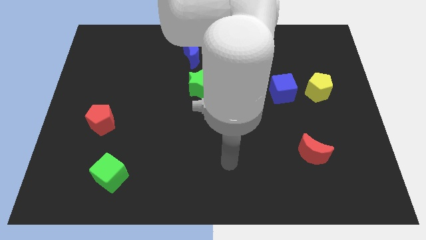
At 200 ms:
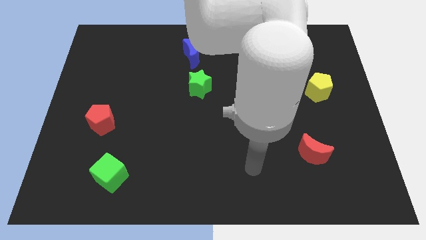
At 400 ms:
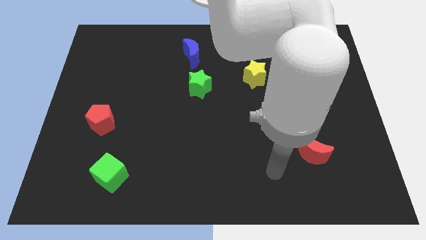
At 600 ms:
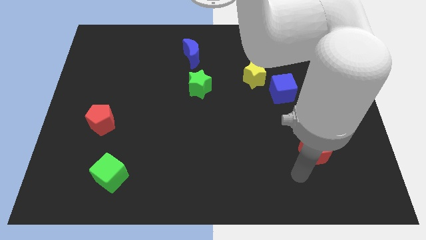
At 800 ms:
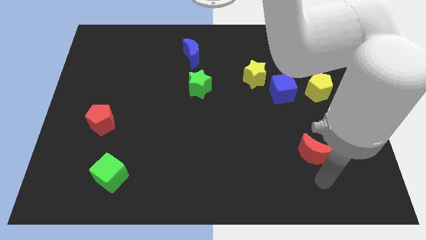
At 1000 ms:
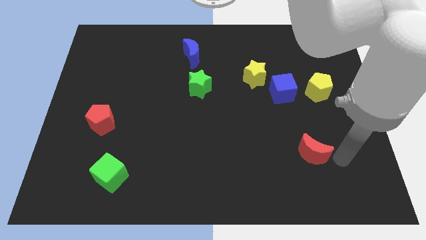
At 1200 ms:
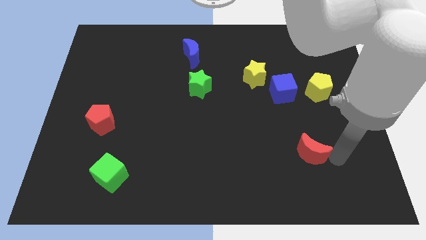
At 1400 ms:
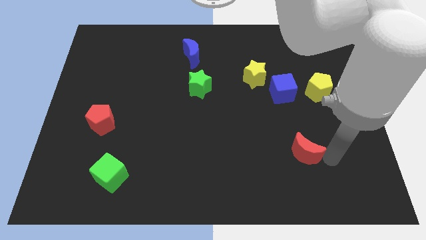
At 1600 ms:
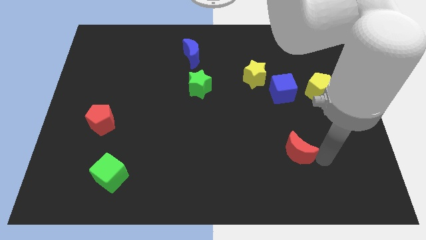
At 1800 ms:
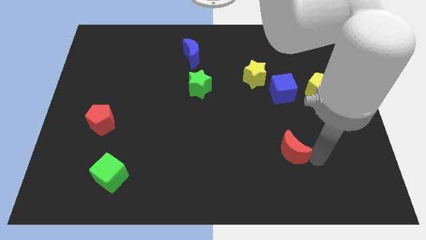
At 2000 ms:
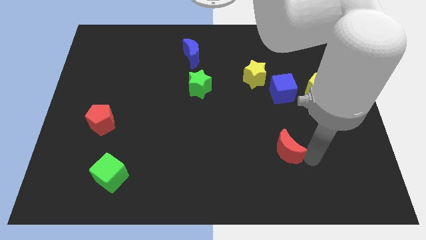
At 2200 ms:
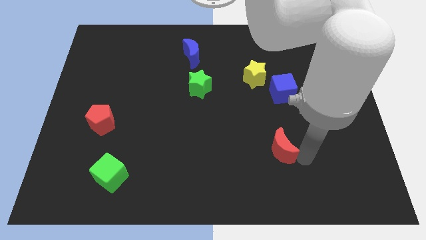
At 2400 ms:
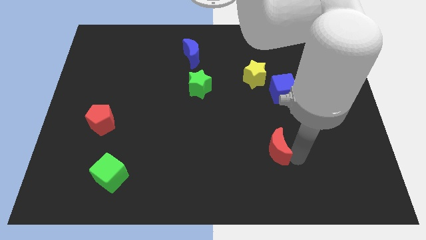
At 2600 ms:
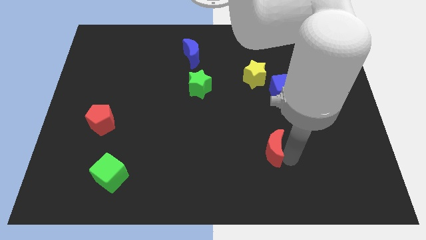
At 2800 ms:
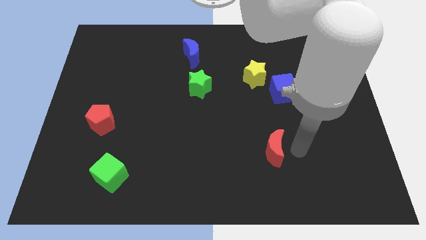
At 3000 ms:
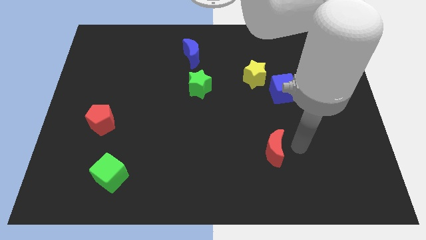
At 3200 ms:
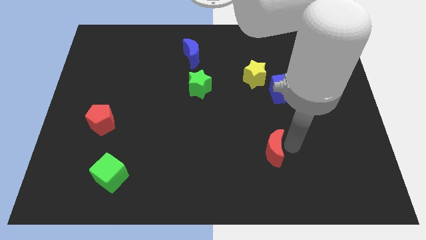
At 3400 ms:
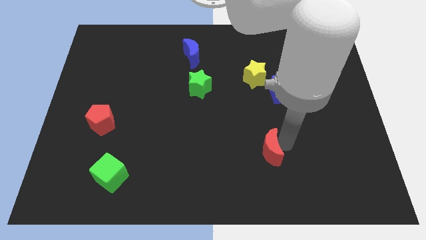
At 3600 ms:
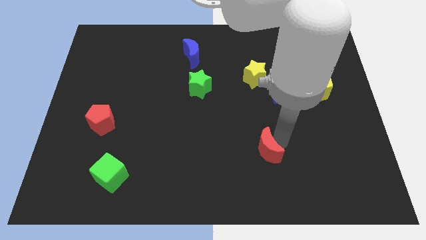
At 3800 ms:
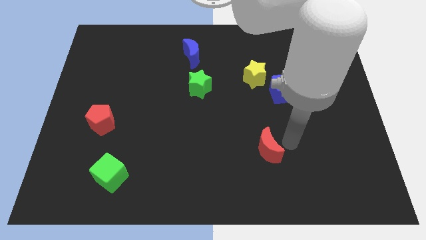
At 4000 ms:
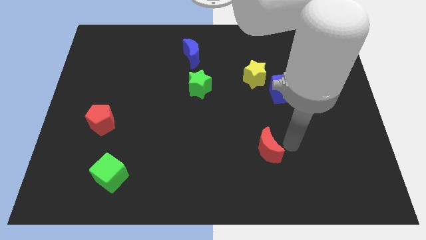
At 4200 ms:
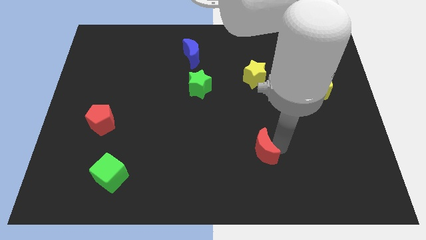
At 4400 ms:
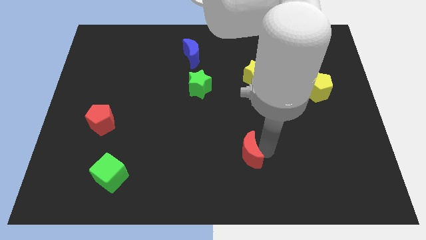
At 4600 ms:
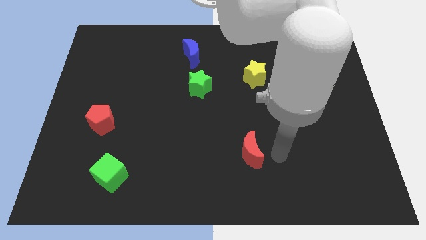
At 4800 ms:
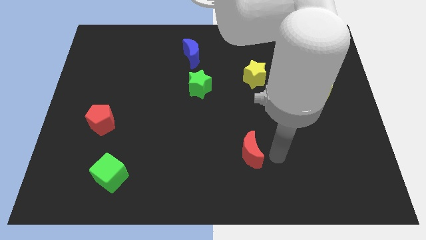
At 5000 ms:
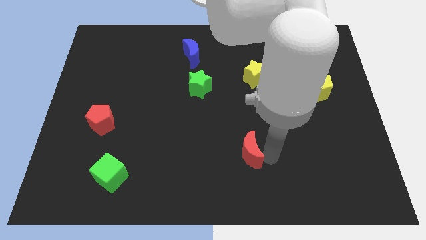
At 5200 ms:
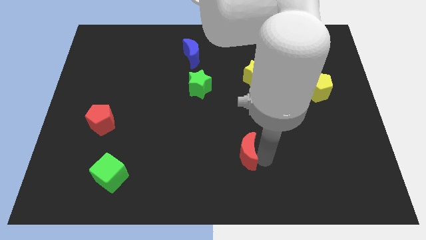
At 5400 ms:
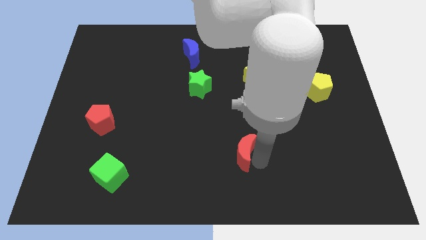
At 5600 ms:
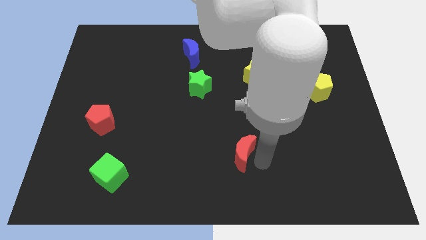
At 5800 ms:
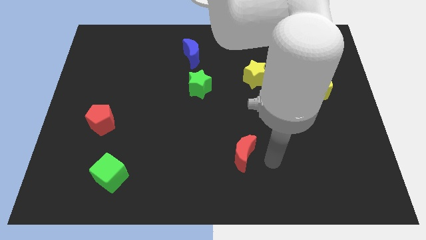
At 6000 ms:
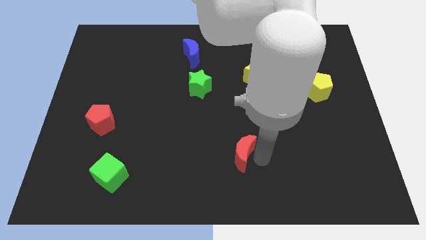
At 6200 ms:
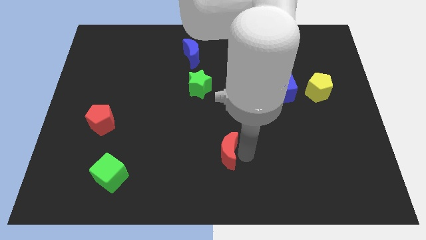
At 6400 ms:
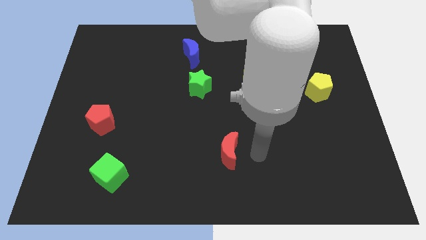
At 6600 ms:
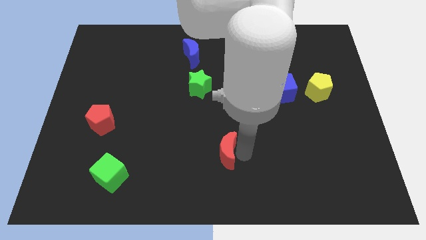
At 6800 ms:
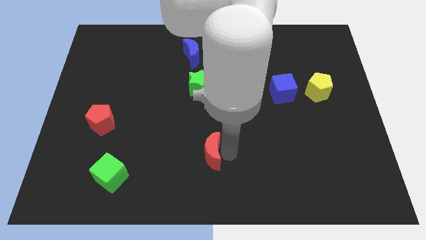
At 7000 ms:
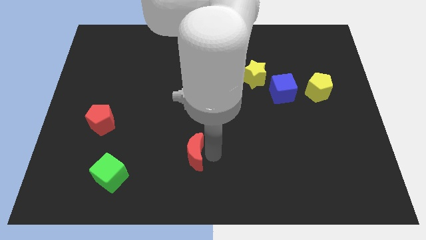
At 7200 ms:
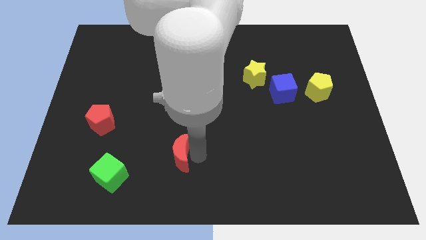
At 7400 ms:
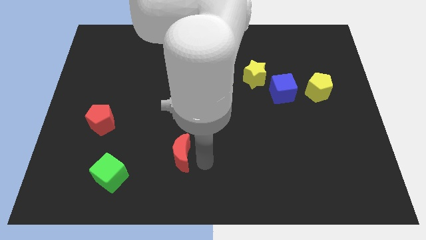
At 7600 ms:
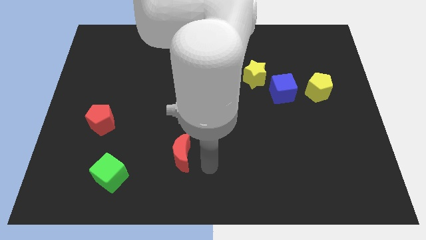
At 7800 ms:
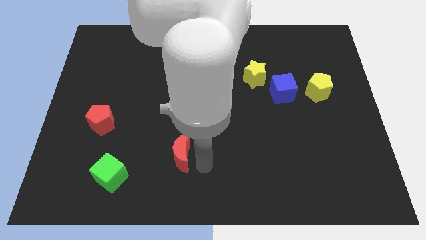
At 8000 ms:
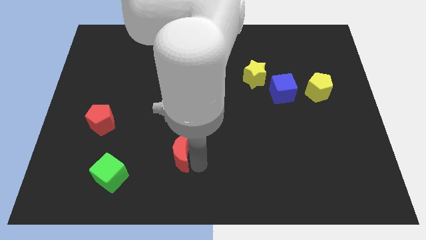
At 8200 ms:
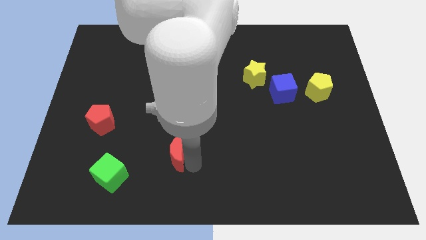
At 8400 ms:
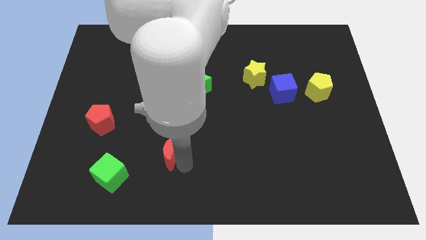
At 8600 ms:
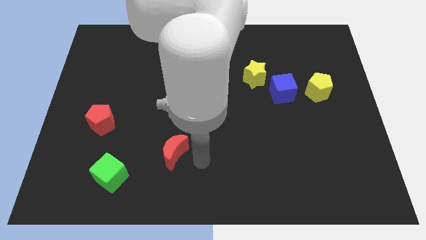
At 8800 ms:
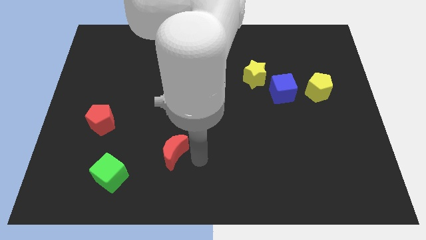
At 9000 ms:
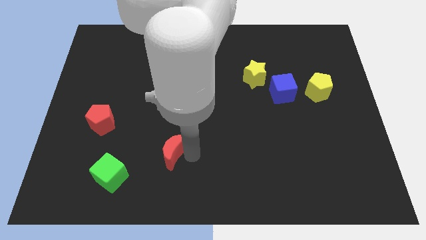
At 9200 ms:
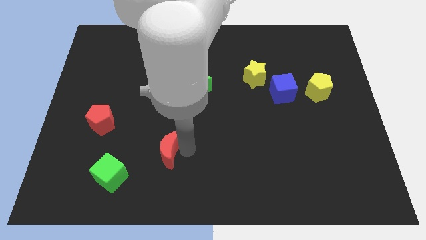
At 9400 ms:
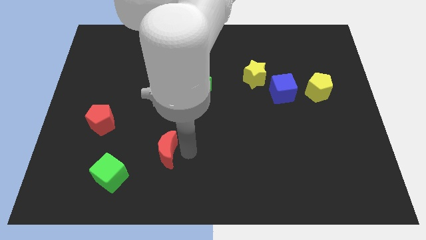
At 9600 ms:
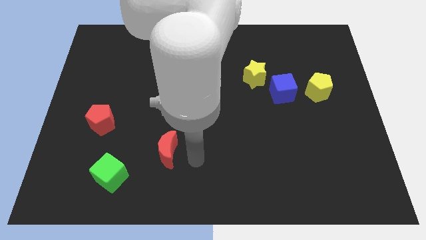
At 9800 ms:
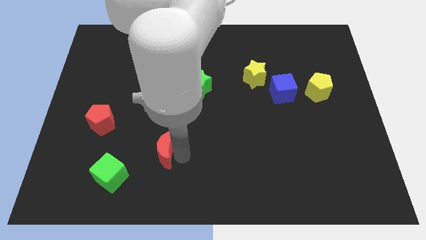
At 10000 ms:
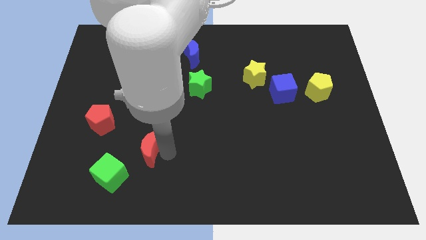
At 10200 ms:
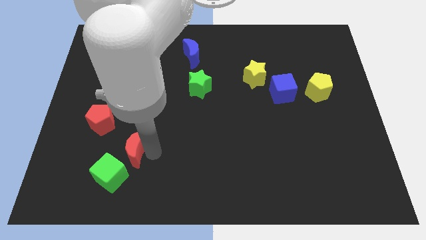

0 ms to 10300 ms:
put the red moon diagonally down and to the right of the red pentagon

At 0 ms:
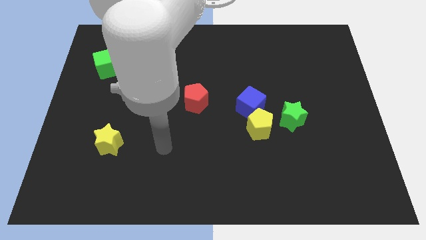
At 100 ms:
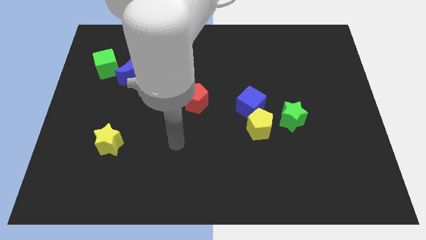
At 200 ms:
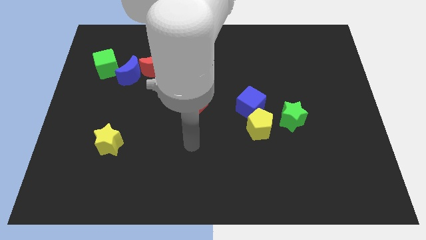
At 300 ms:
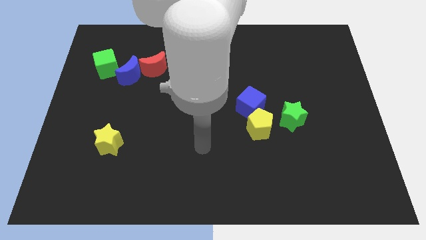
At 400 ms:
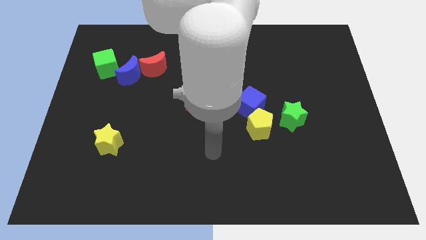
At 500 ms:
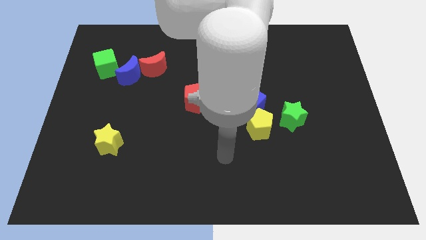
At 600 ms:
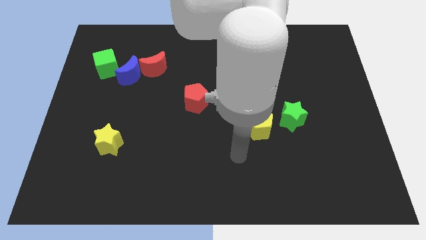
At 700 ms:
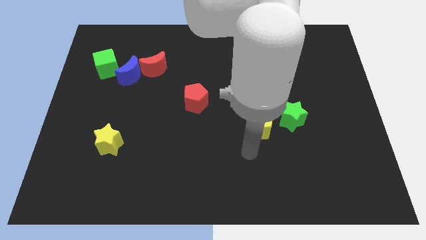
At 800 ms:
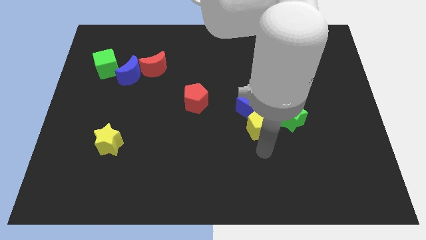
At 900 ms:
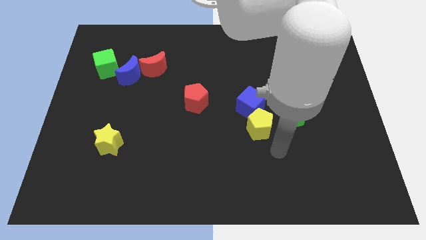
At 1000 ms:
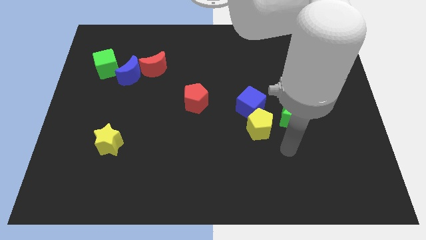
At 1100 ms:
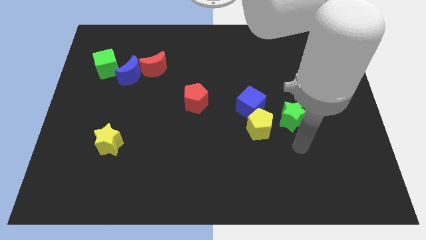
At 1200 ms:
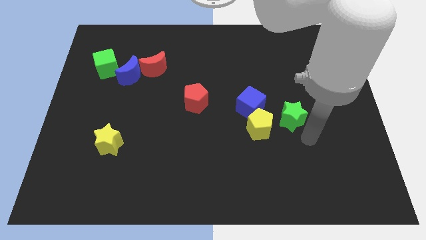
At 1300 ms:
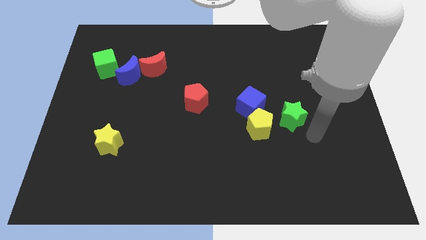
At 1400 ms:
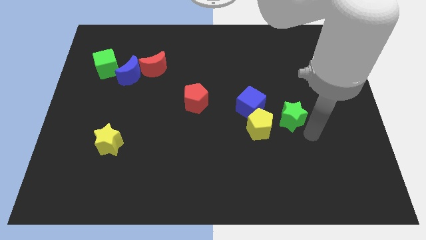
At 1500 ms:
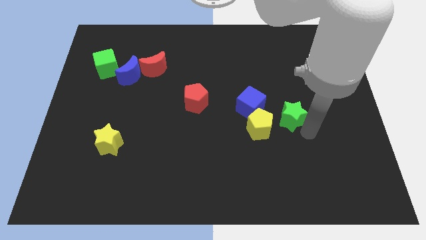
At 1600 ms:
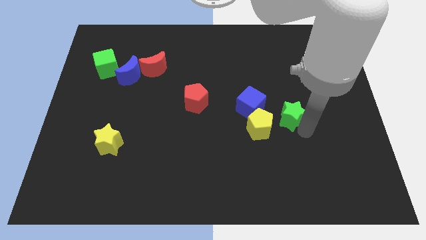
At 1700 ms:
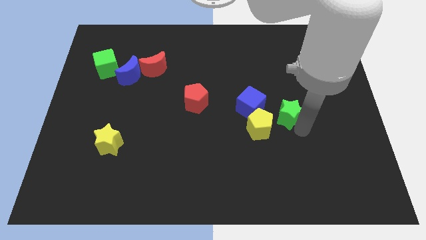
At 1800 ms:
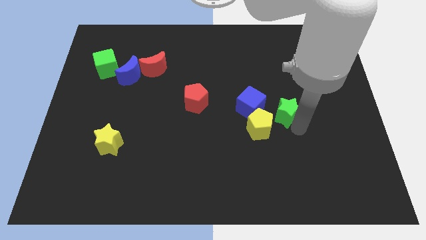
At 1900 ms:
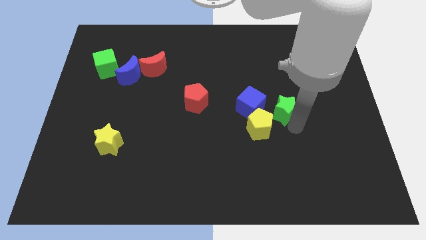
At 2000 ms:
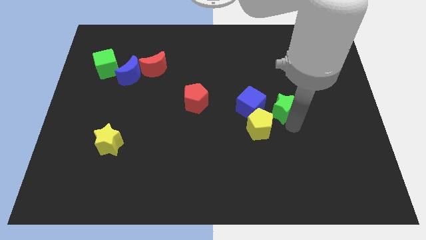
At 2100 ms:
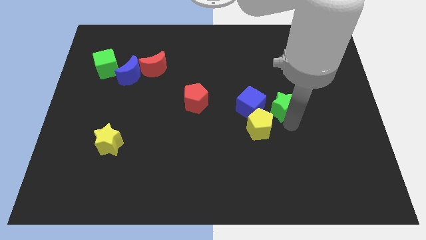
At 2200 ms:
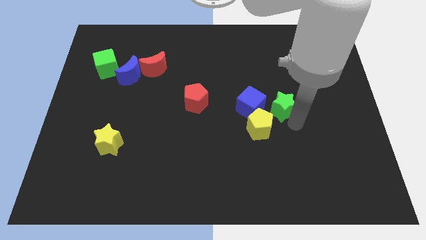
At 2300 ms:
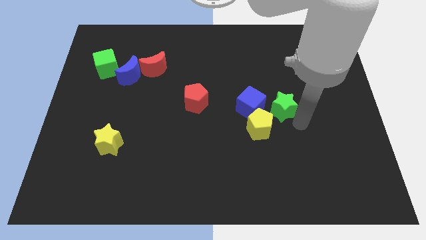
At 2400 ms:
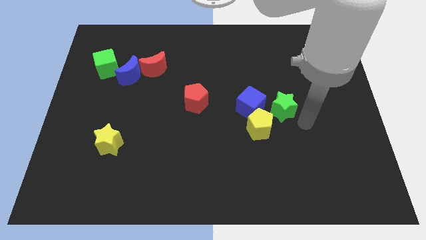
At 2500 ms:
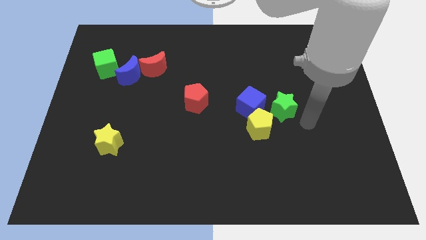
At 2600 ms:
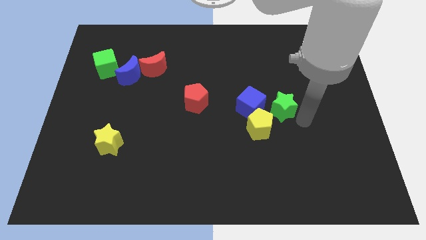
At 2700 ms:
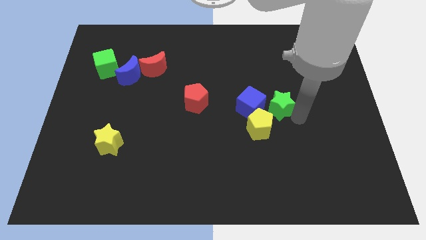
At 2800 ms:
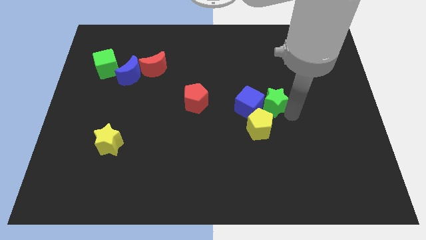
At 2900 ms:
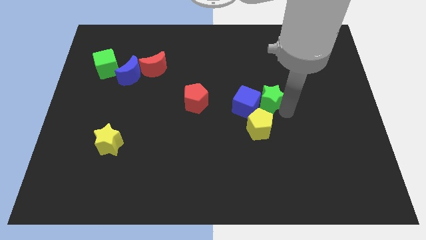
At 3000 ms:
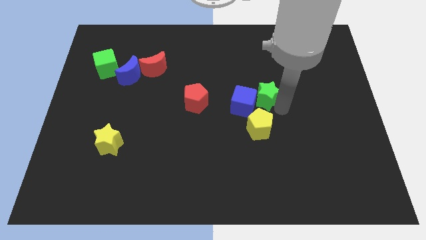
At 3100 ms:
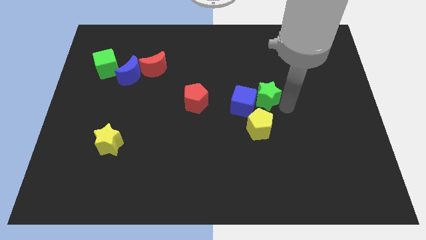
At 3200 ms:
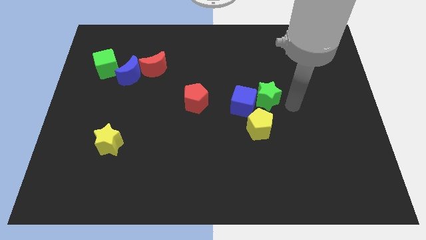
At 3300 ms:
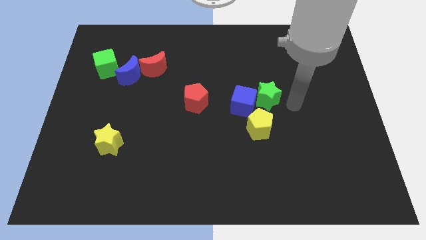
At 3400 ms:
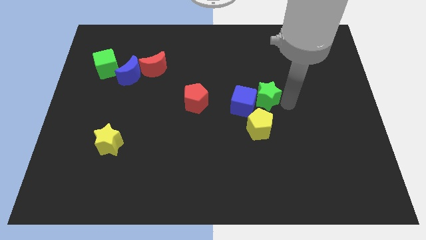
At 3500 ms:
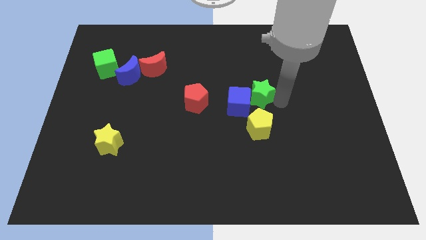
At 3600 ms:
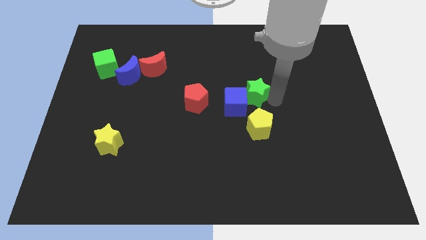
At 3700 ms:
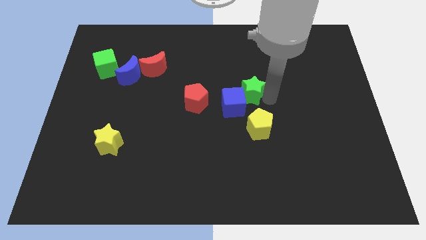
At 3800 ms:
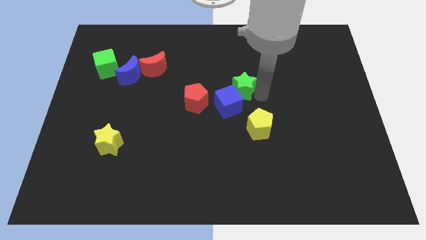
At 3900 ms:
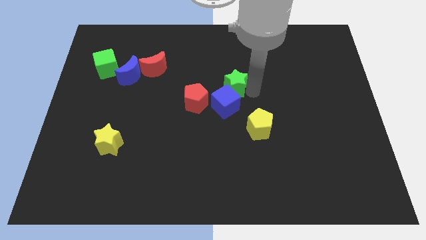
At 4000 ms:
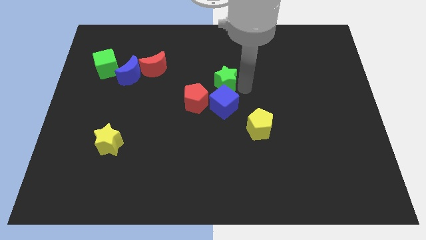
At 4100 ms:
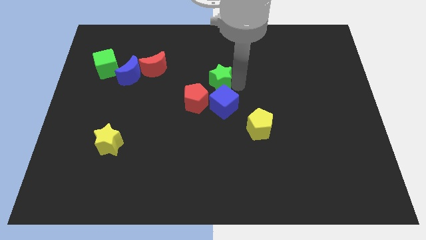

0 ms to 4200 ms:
push the green star to the top left side of the blue cube
